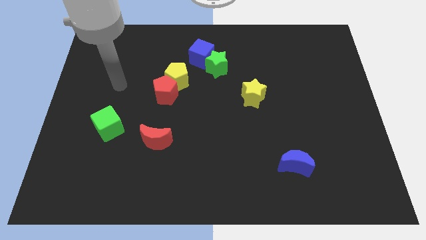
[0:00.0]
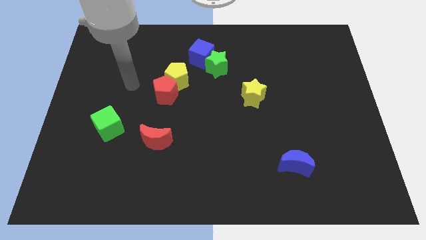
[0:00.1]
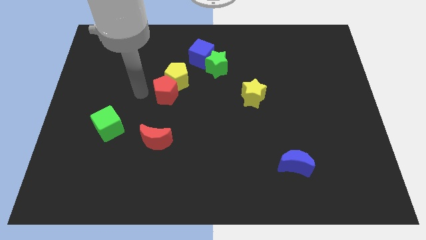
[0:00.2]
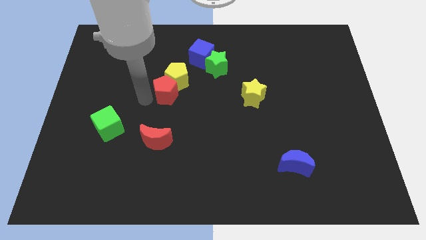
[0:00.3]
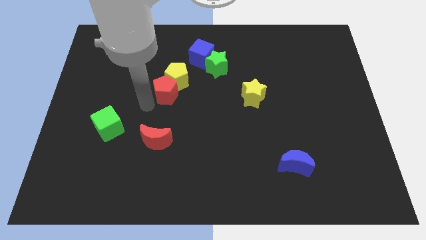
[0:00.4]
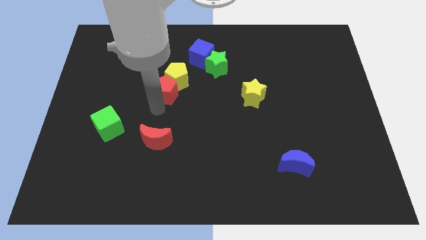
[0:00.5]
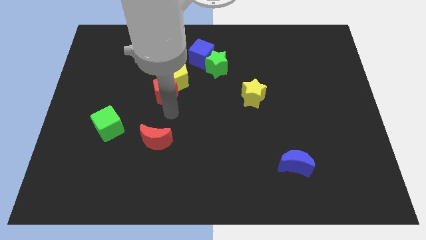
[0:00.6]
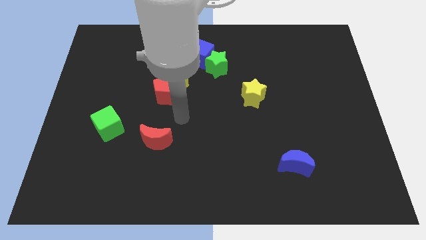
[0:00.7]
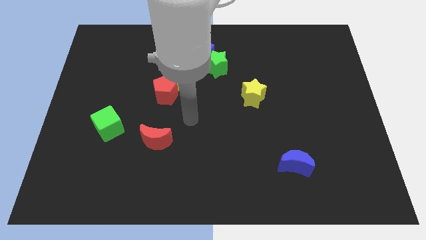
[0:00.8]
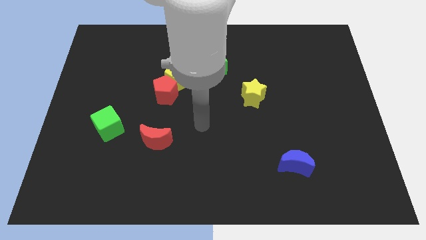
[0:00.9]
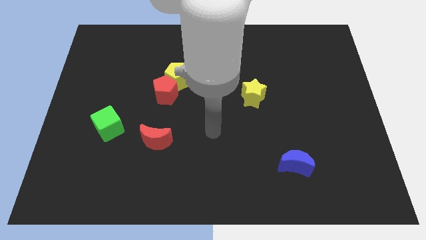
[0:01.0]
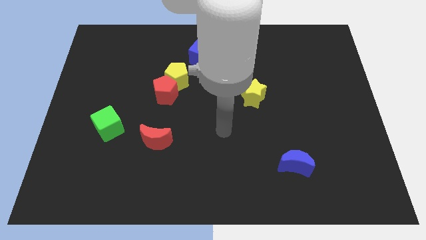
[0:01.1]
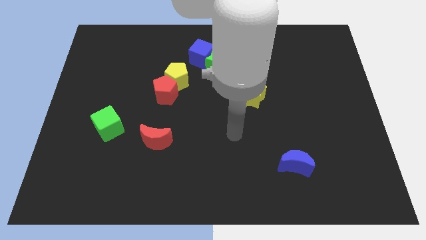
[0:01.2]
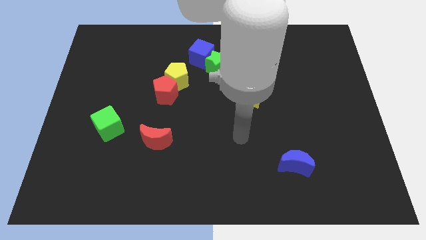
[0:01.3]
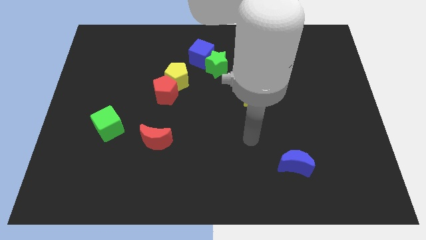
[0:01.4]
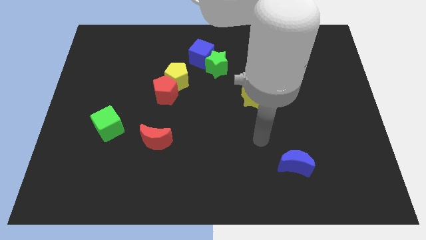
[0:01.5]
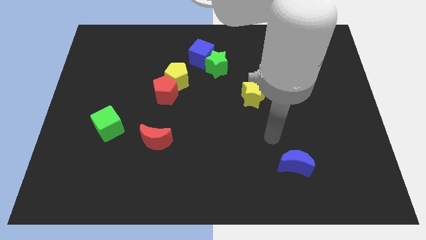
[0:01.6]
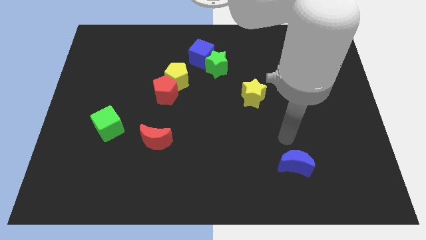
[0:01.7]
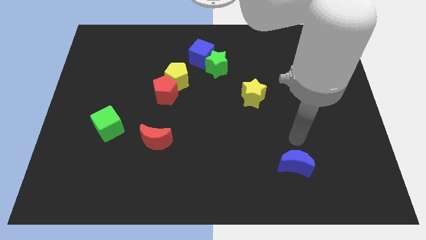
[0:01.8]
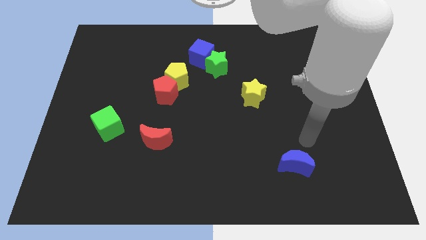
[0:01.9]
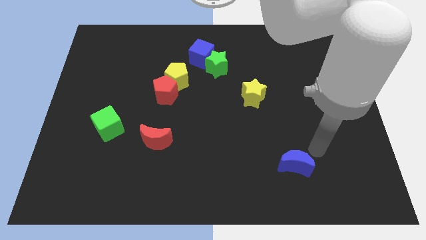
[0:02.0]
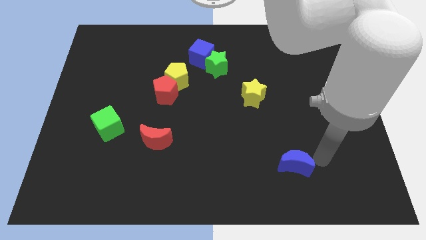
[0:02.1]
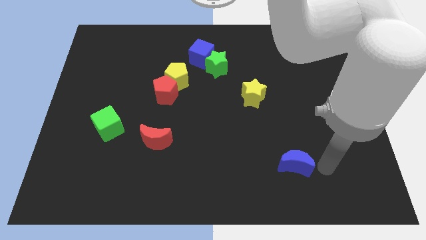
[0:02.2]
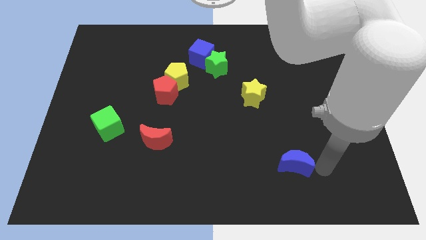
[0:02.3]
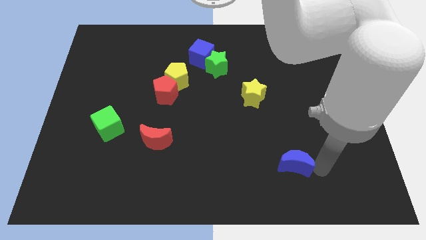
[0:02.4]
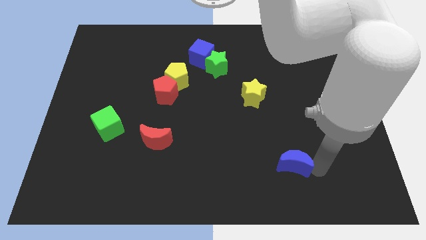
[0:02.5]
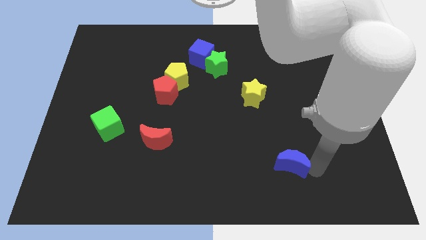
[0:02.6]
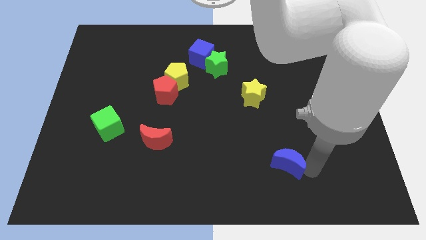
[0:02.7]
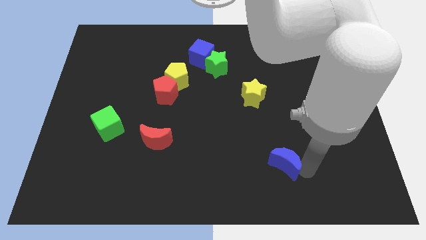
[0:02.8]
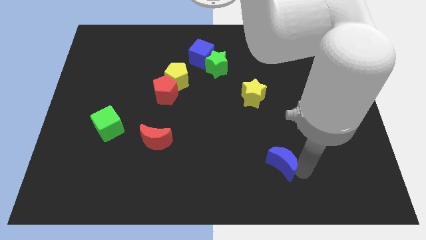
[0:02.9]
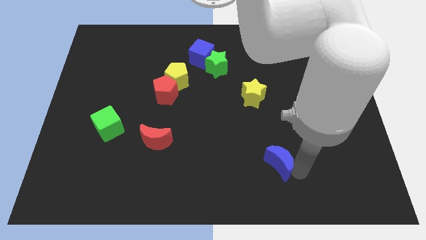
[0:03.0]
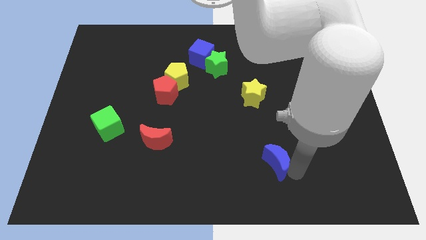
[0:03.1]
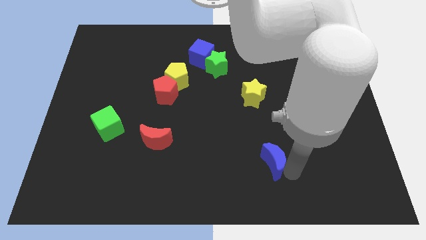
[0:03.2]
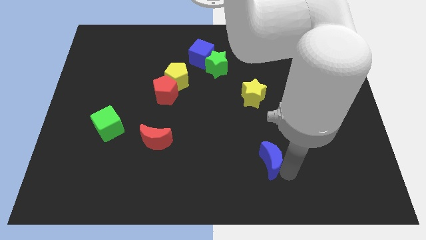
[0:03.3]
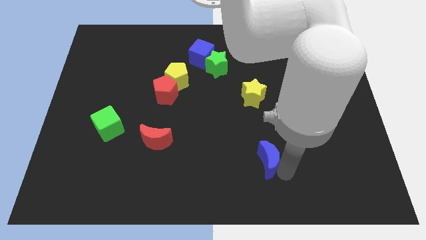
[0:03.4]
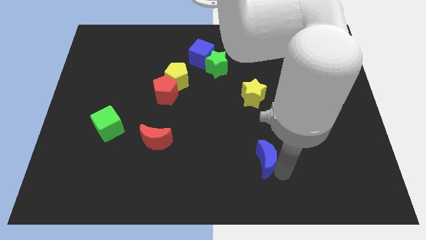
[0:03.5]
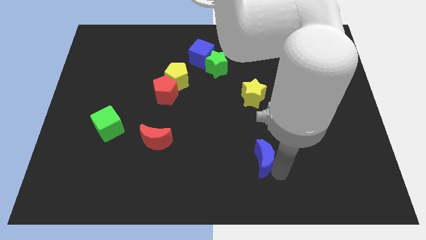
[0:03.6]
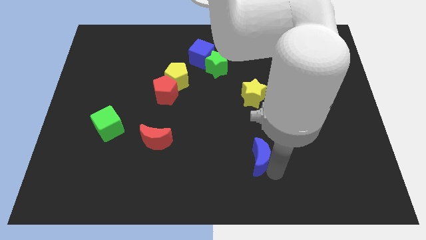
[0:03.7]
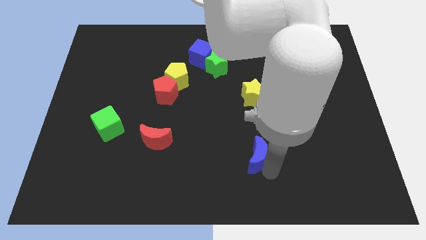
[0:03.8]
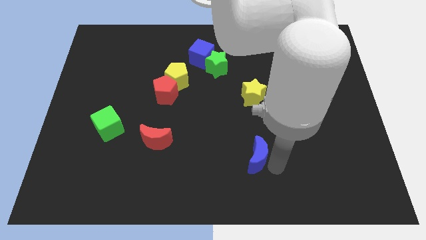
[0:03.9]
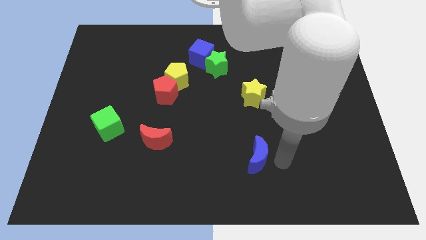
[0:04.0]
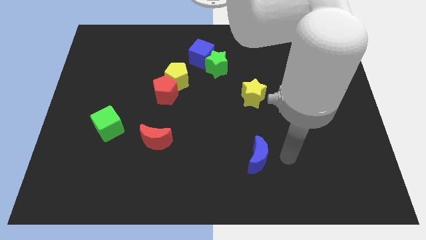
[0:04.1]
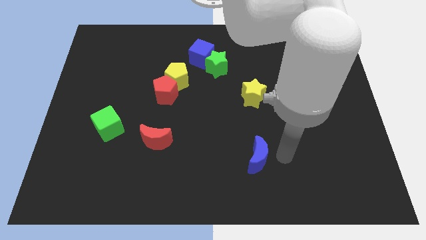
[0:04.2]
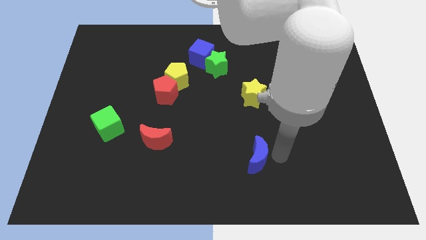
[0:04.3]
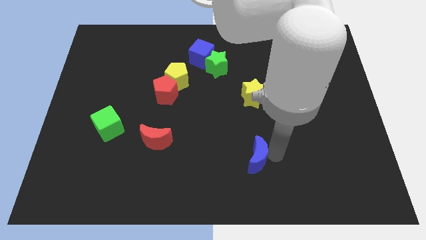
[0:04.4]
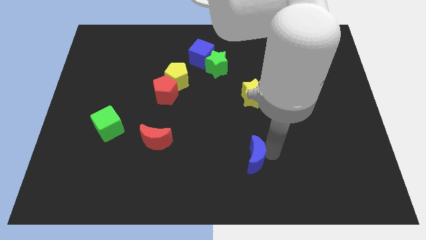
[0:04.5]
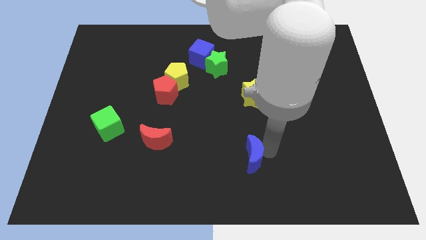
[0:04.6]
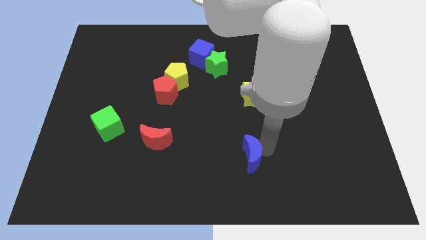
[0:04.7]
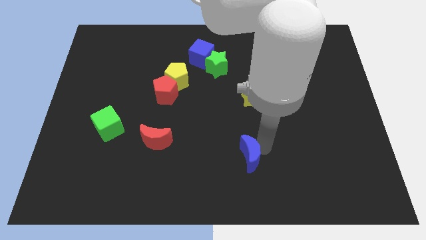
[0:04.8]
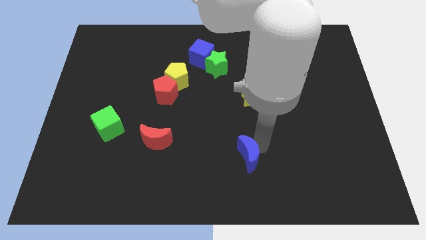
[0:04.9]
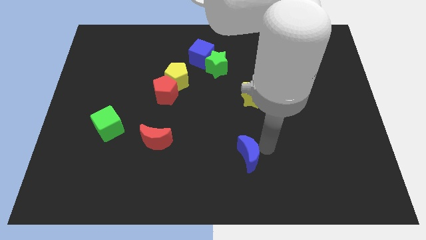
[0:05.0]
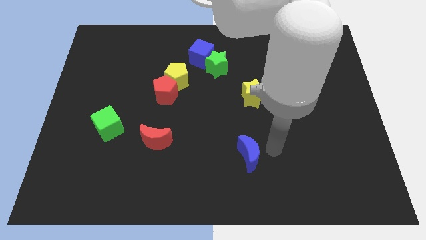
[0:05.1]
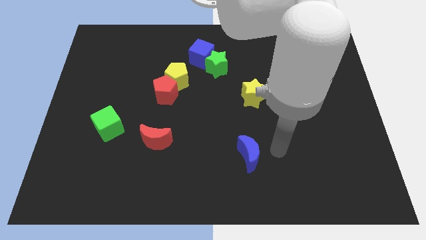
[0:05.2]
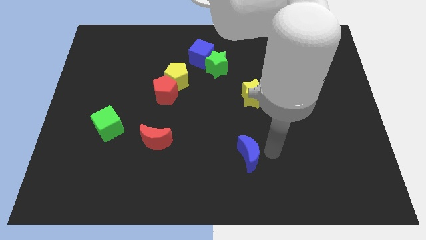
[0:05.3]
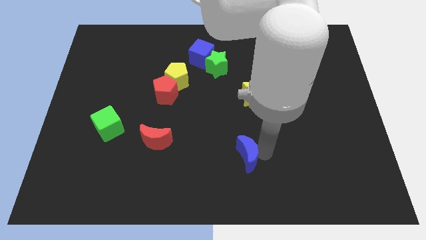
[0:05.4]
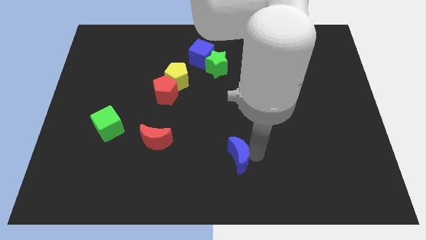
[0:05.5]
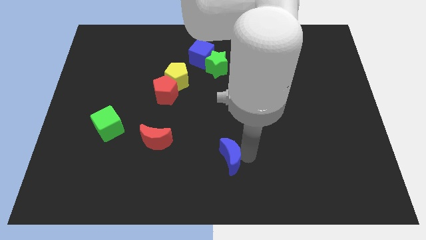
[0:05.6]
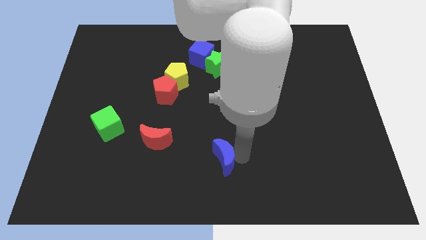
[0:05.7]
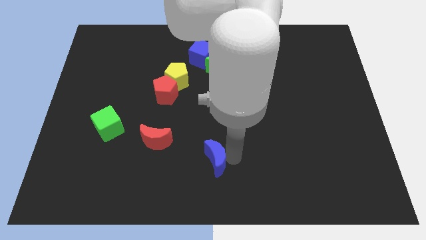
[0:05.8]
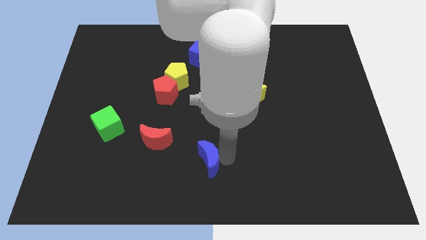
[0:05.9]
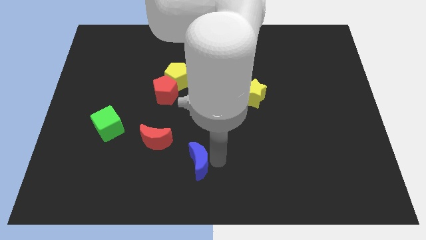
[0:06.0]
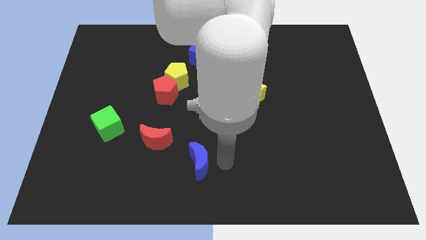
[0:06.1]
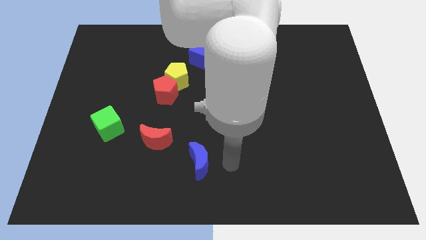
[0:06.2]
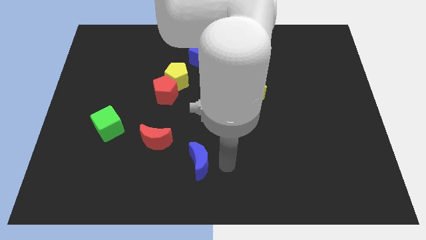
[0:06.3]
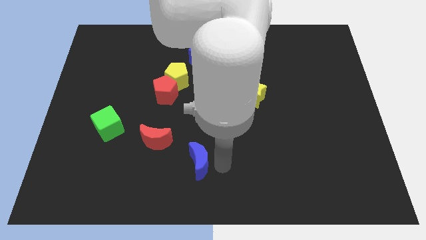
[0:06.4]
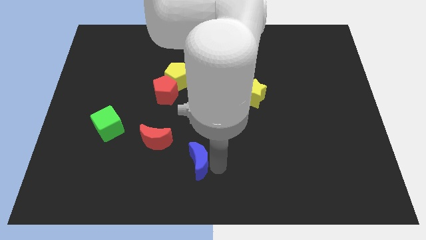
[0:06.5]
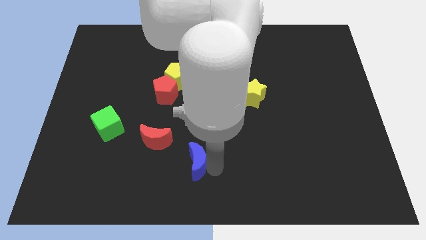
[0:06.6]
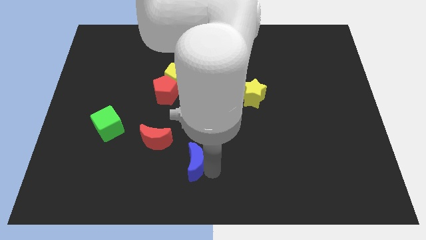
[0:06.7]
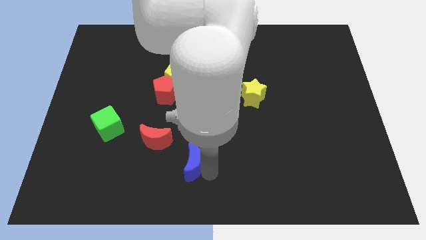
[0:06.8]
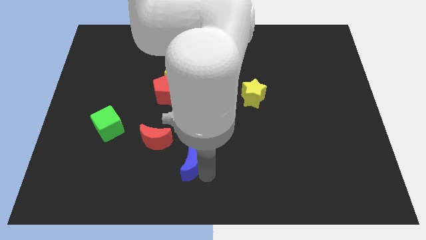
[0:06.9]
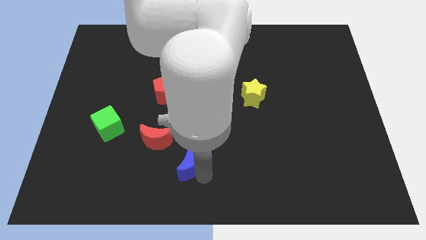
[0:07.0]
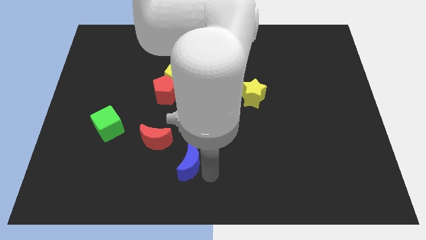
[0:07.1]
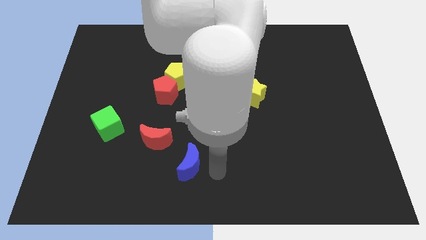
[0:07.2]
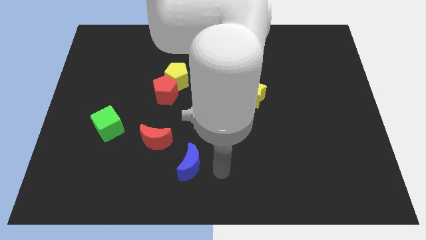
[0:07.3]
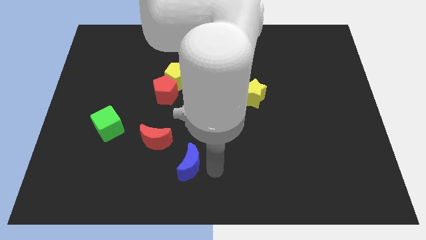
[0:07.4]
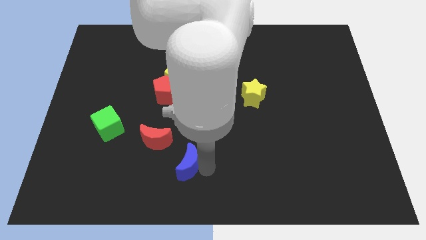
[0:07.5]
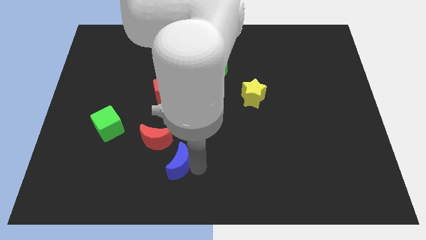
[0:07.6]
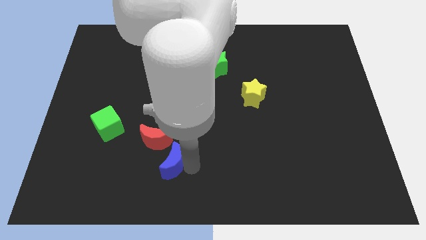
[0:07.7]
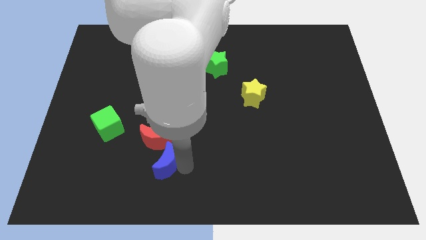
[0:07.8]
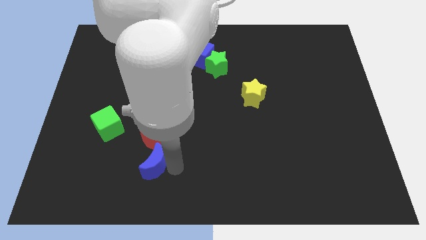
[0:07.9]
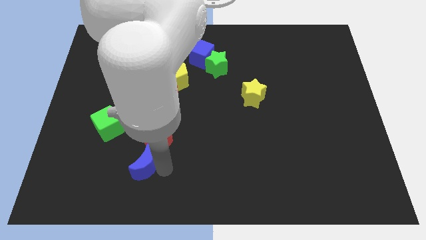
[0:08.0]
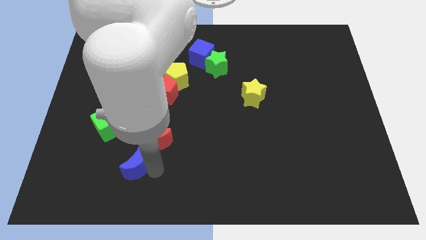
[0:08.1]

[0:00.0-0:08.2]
slide the blue moon to the bottom right of the green cube
